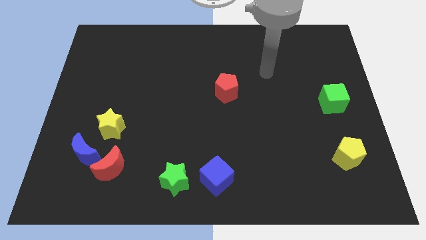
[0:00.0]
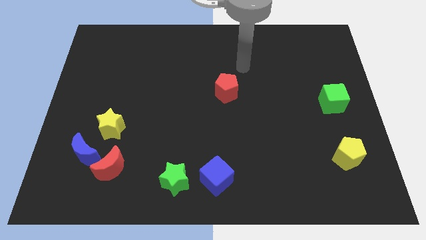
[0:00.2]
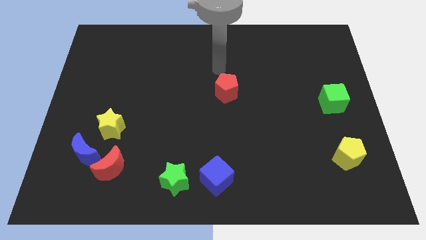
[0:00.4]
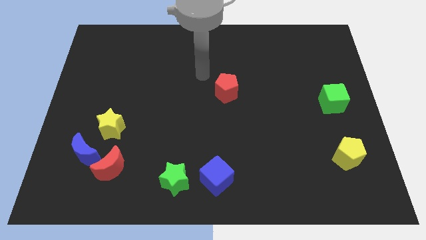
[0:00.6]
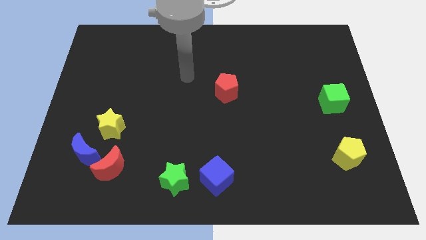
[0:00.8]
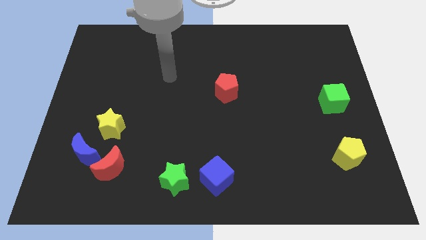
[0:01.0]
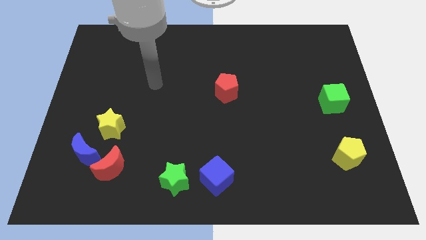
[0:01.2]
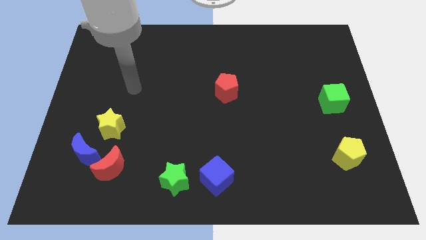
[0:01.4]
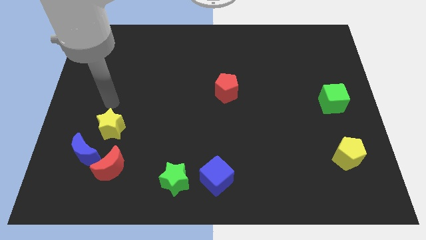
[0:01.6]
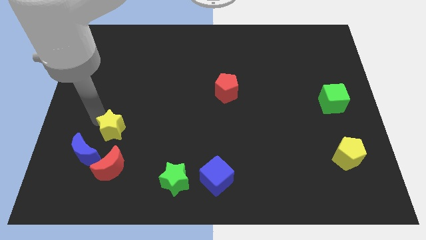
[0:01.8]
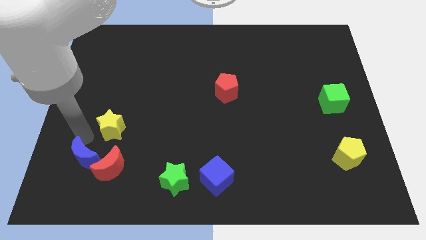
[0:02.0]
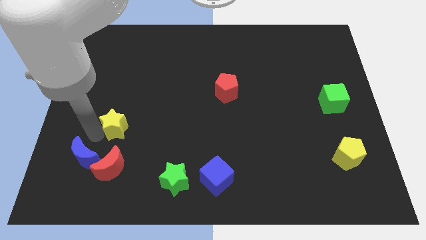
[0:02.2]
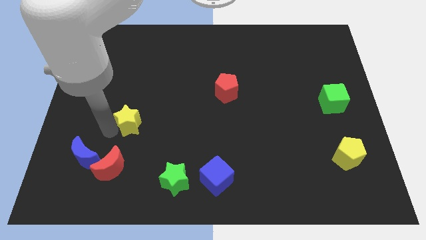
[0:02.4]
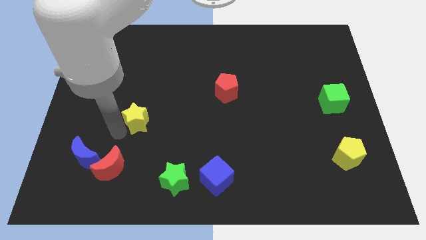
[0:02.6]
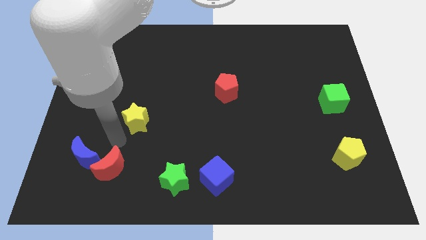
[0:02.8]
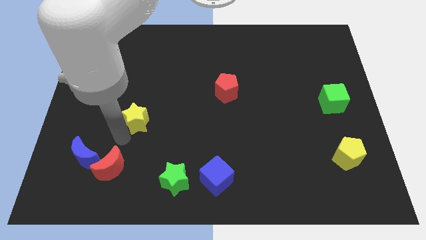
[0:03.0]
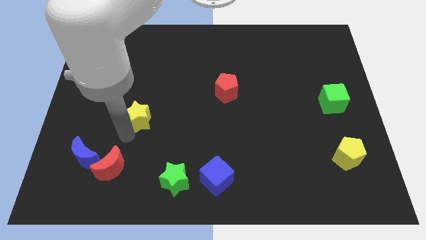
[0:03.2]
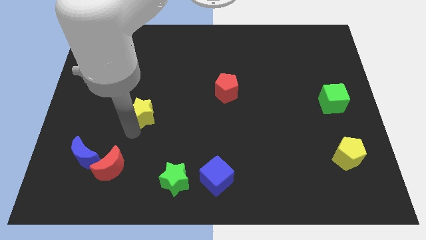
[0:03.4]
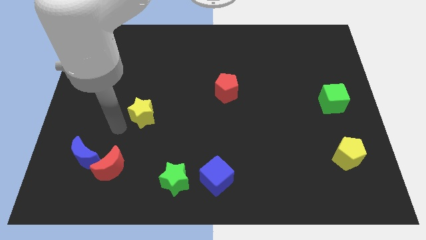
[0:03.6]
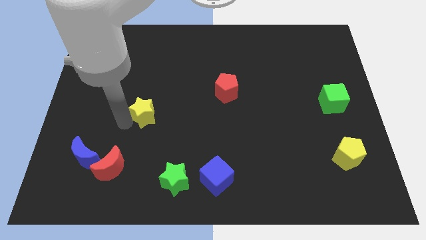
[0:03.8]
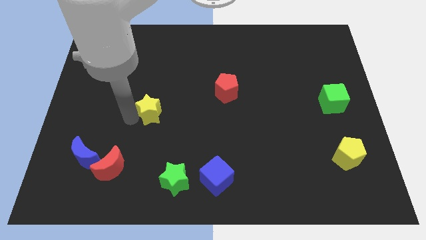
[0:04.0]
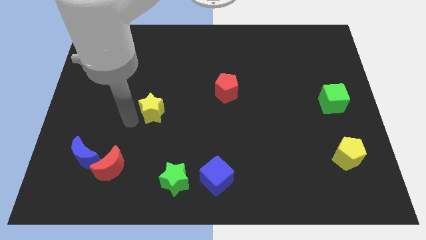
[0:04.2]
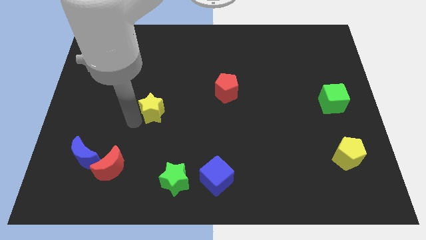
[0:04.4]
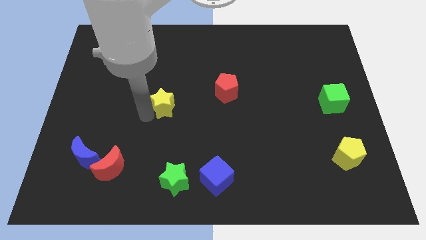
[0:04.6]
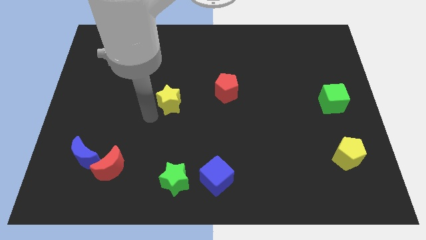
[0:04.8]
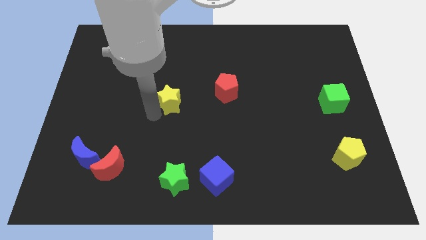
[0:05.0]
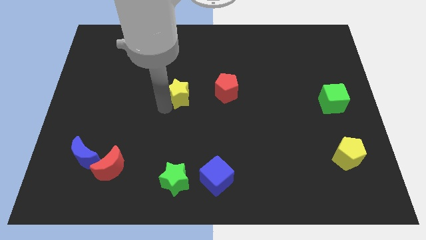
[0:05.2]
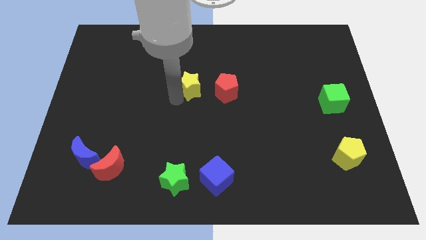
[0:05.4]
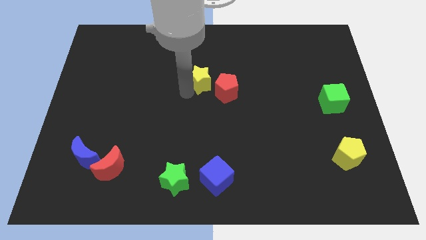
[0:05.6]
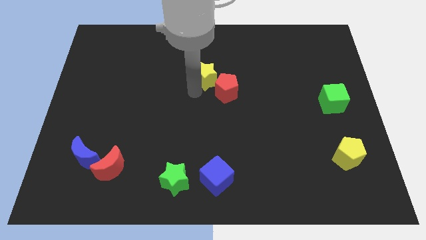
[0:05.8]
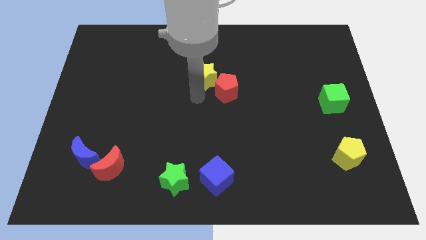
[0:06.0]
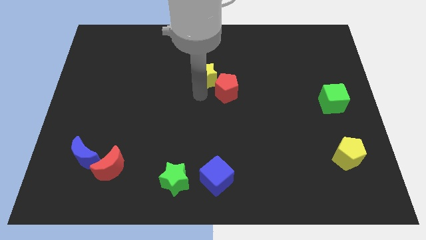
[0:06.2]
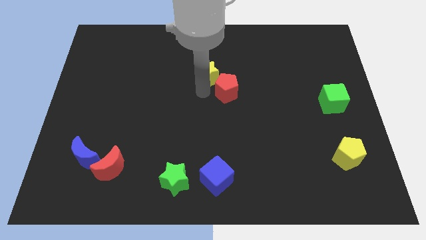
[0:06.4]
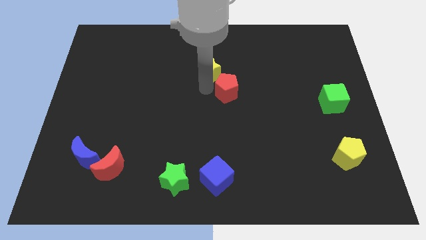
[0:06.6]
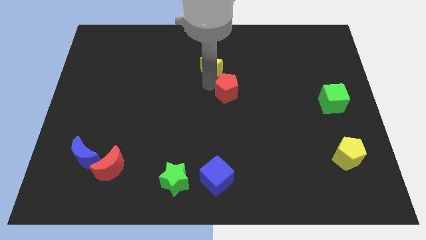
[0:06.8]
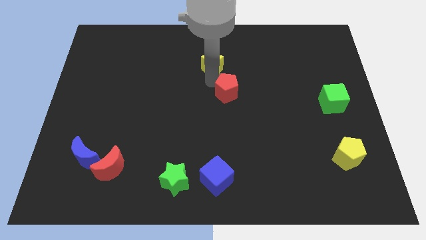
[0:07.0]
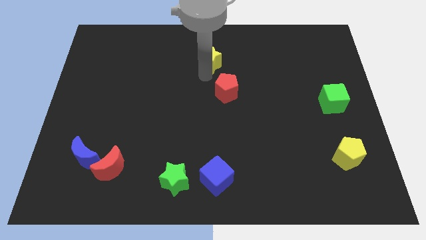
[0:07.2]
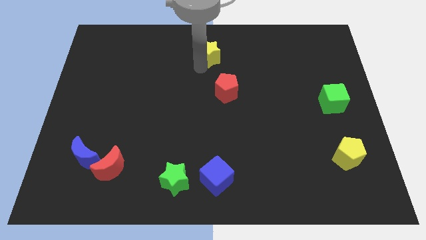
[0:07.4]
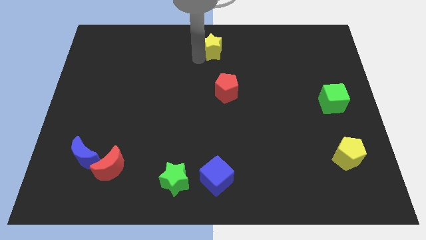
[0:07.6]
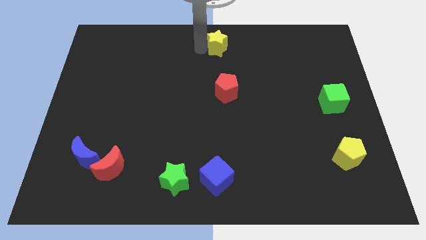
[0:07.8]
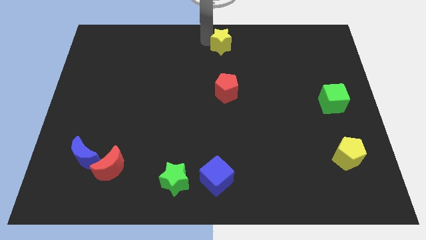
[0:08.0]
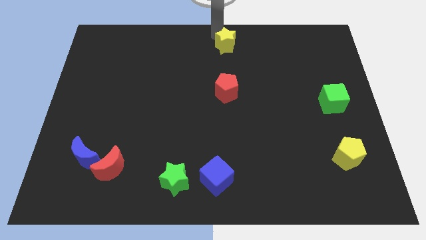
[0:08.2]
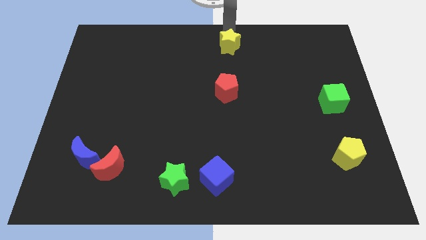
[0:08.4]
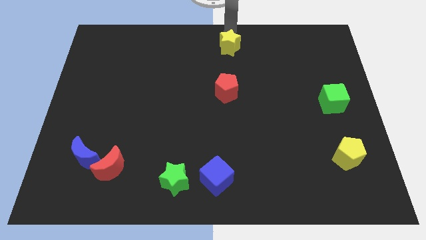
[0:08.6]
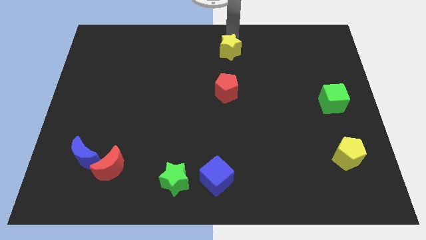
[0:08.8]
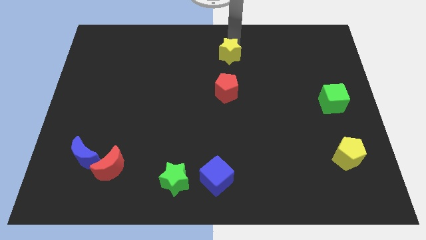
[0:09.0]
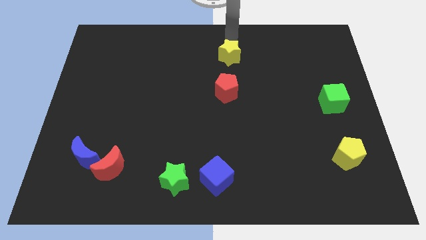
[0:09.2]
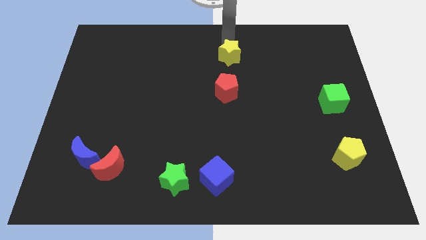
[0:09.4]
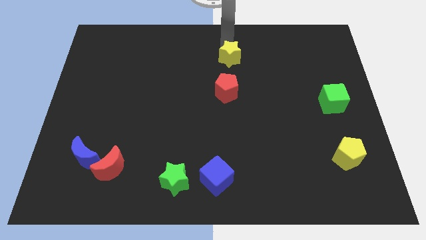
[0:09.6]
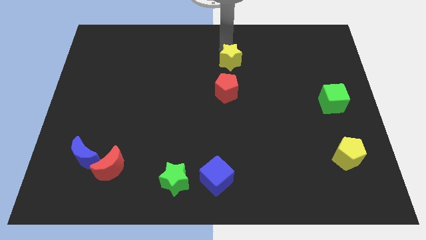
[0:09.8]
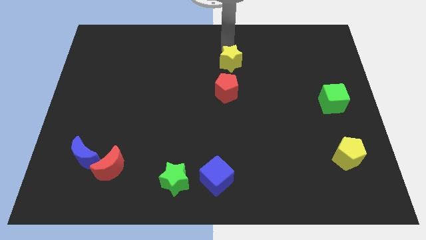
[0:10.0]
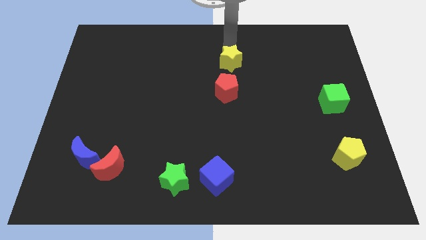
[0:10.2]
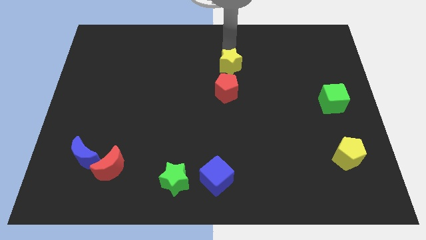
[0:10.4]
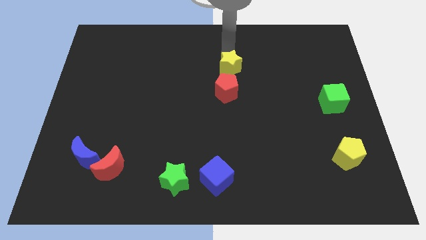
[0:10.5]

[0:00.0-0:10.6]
push the yellow star diagonally up and to the right of the red pentagon

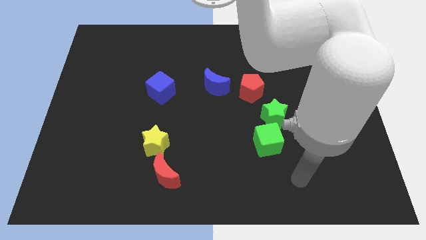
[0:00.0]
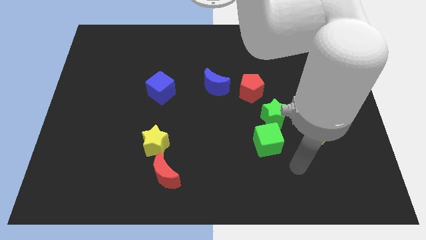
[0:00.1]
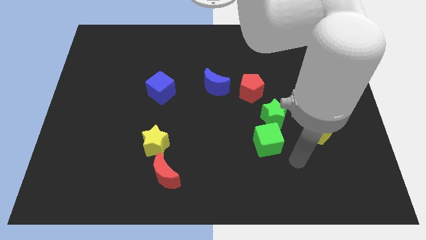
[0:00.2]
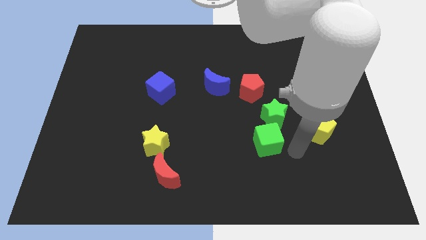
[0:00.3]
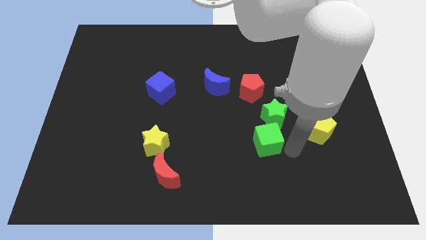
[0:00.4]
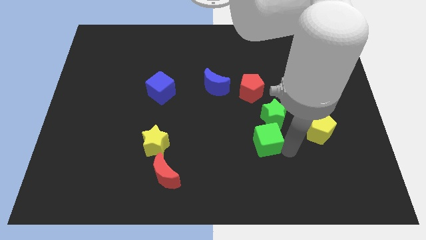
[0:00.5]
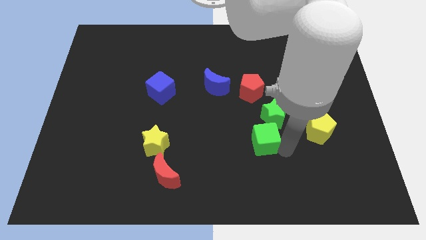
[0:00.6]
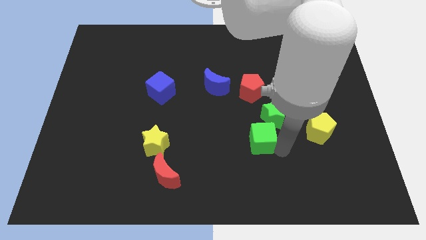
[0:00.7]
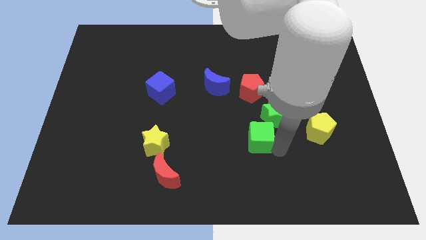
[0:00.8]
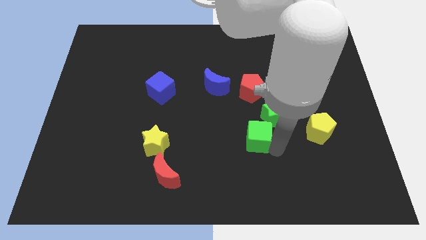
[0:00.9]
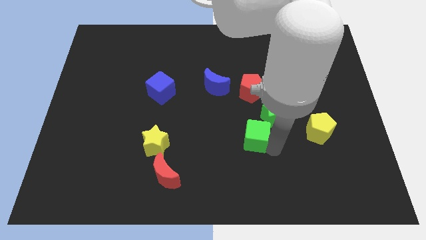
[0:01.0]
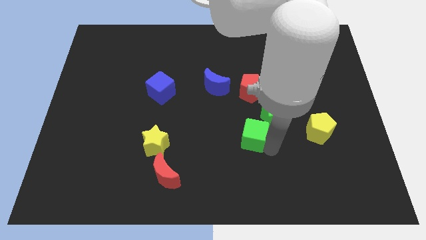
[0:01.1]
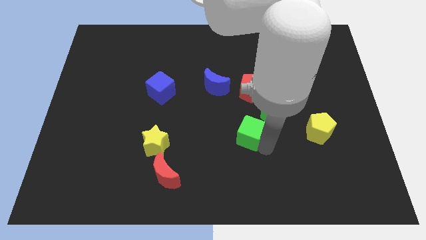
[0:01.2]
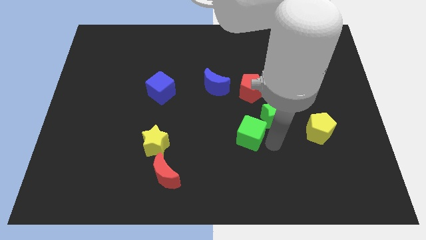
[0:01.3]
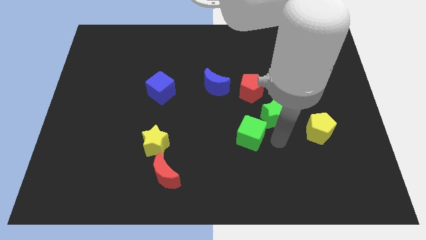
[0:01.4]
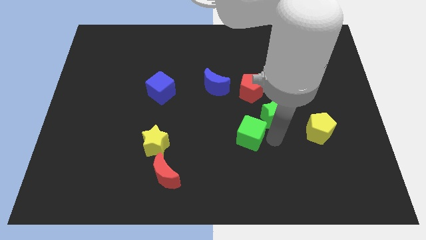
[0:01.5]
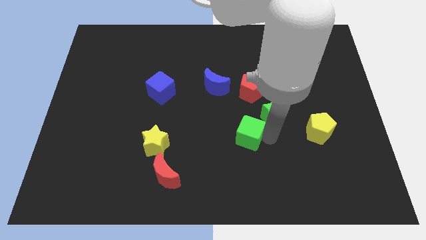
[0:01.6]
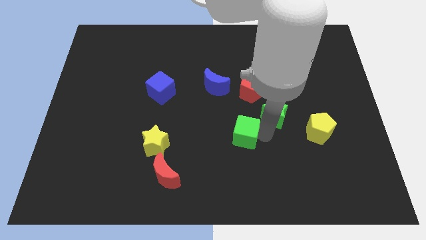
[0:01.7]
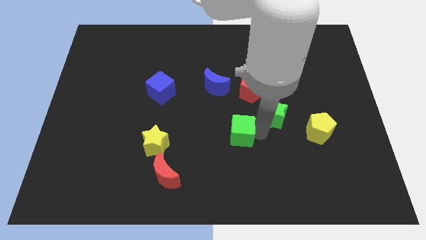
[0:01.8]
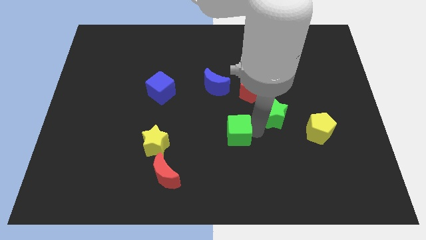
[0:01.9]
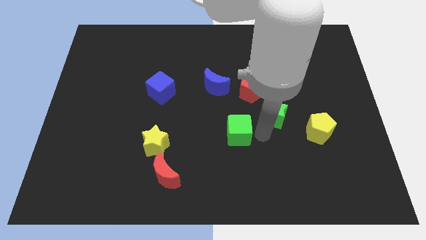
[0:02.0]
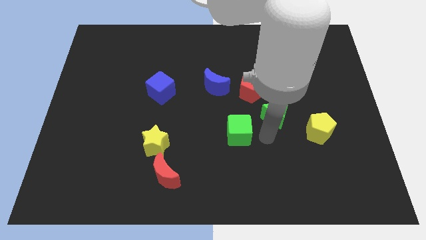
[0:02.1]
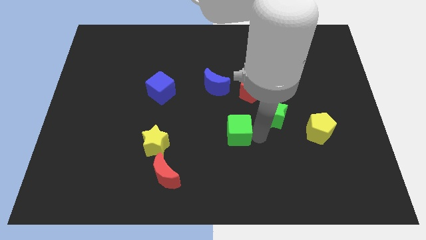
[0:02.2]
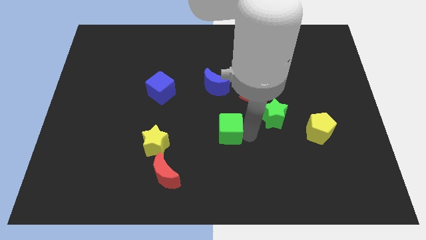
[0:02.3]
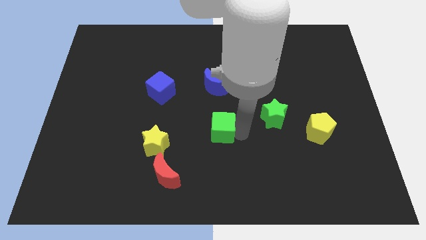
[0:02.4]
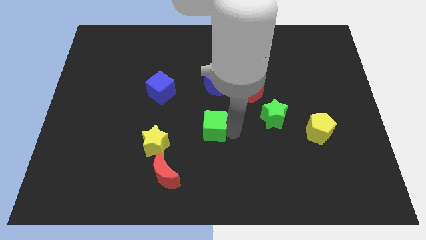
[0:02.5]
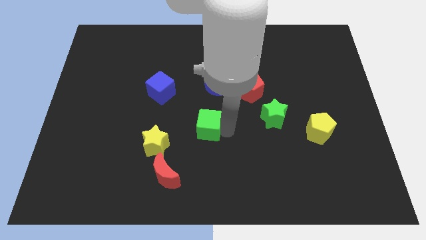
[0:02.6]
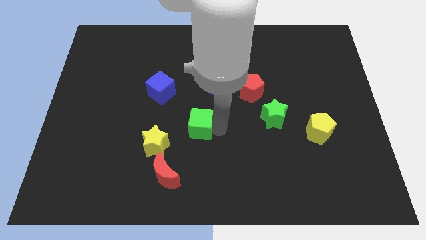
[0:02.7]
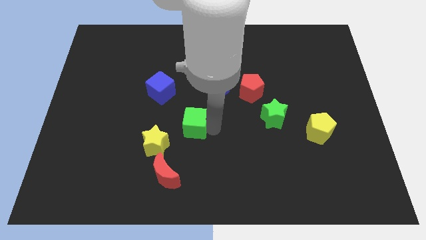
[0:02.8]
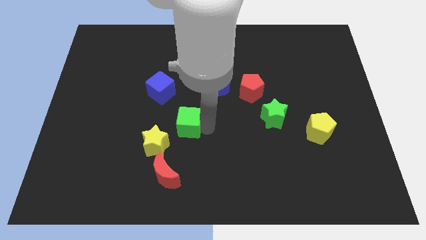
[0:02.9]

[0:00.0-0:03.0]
put the green cube to the top of the red moon
